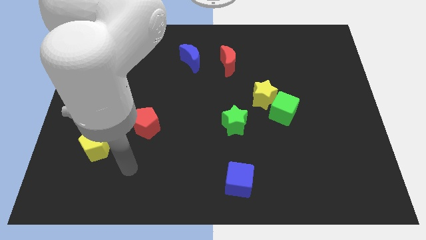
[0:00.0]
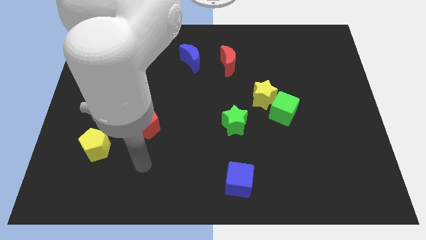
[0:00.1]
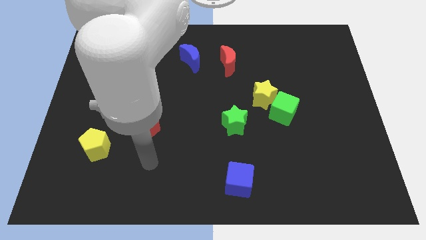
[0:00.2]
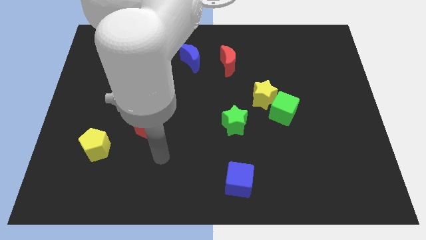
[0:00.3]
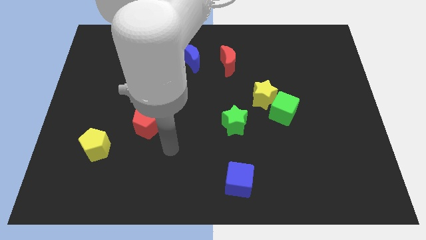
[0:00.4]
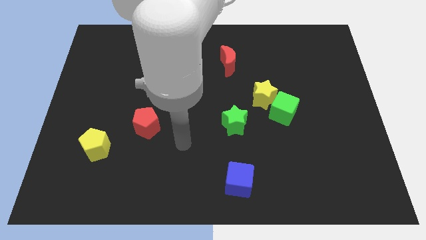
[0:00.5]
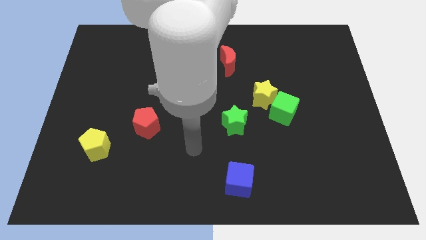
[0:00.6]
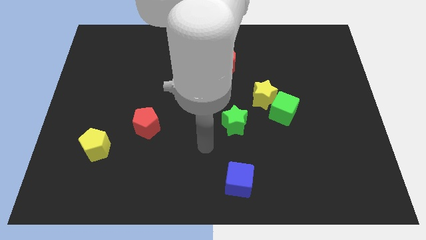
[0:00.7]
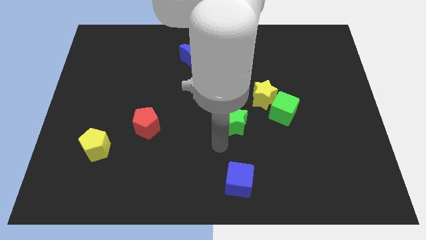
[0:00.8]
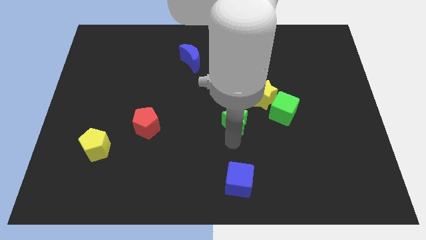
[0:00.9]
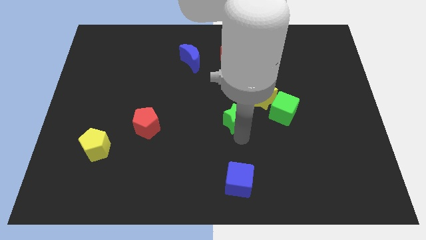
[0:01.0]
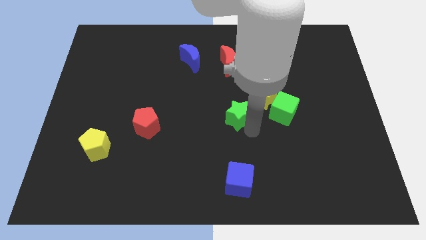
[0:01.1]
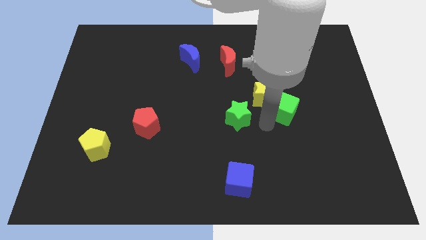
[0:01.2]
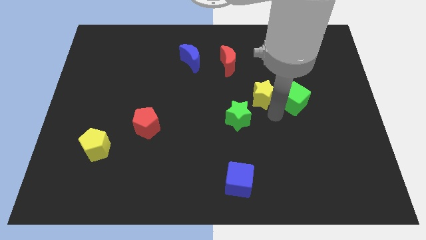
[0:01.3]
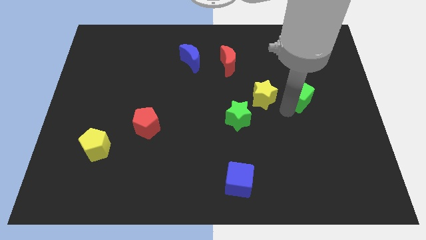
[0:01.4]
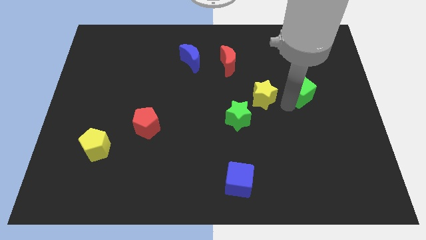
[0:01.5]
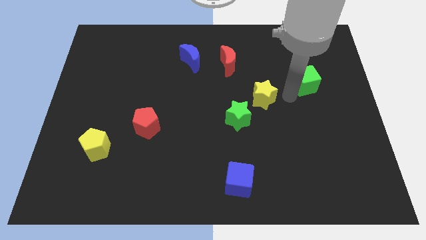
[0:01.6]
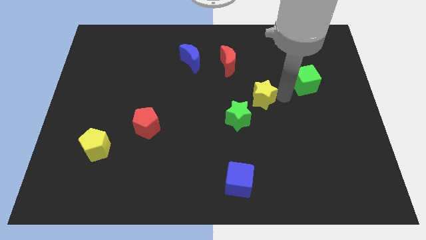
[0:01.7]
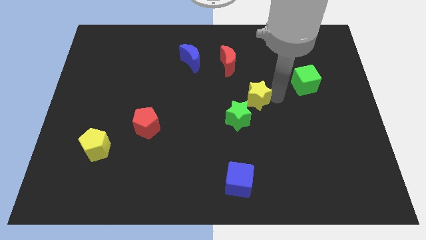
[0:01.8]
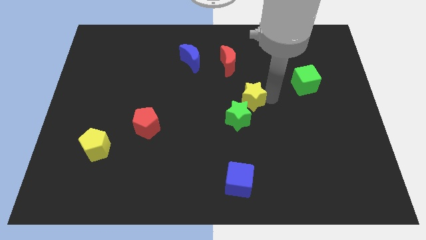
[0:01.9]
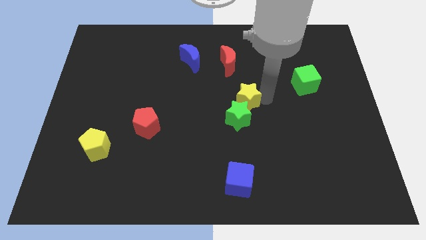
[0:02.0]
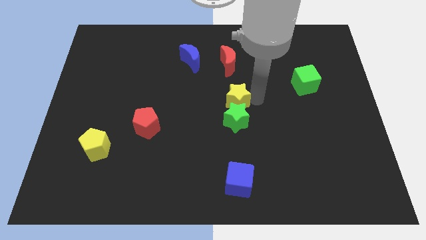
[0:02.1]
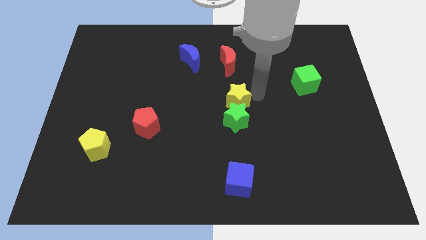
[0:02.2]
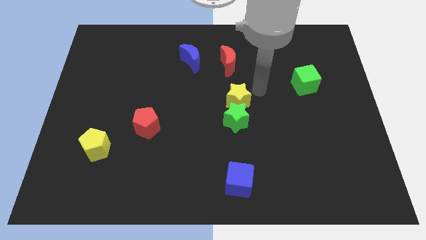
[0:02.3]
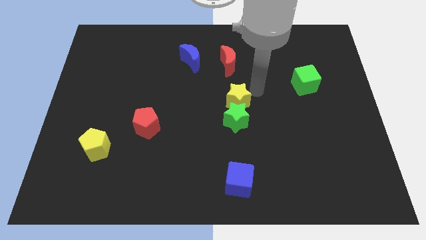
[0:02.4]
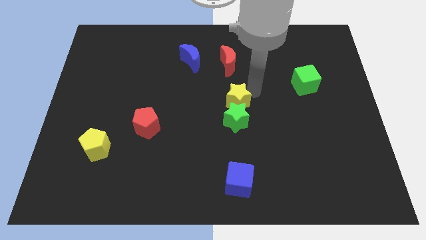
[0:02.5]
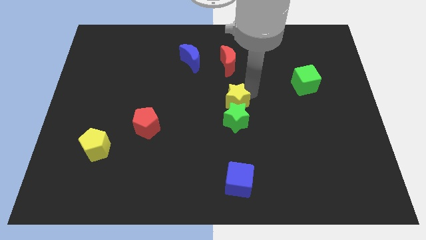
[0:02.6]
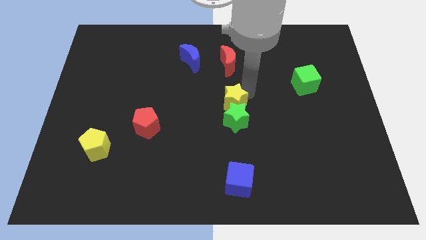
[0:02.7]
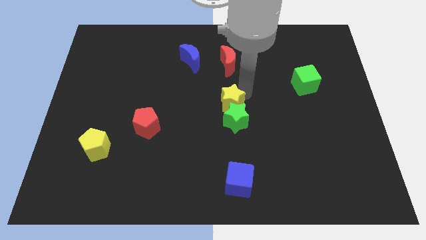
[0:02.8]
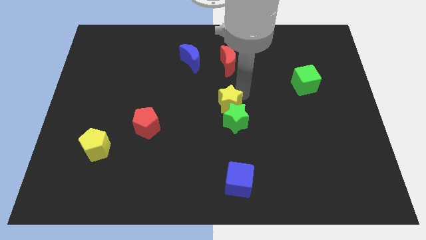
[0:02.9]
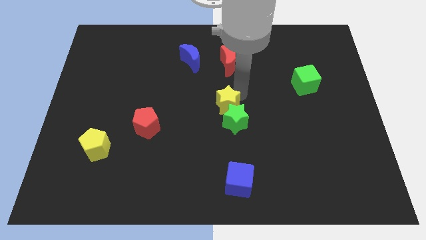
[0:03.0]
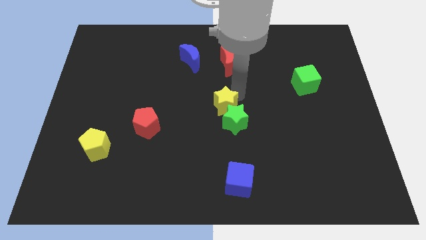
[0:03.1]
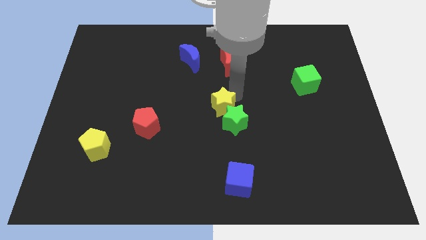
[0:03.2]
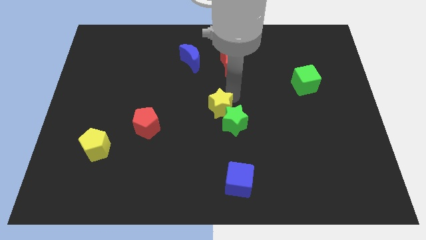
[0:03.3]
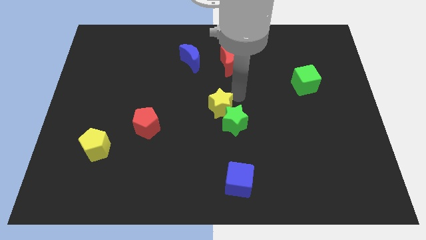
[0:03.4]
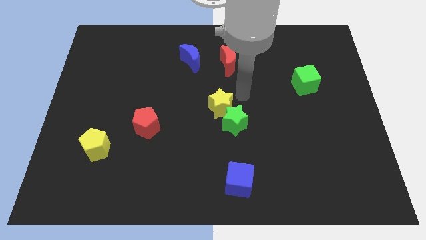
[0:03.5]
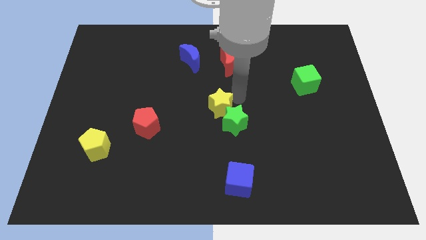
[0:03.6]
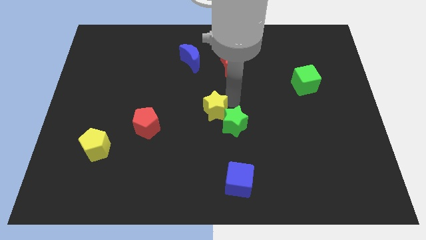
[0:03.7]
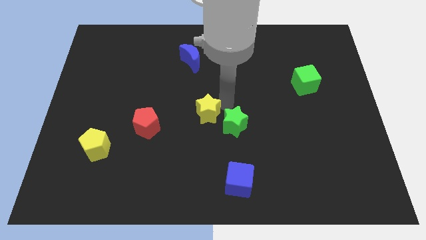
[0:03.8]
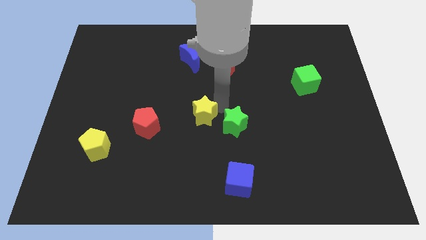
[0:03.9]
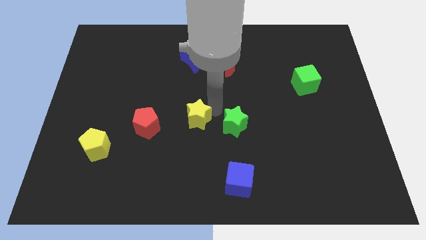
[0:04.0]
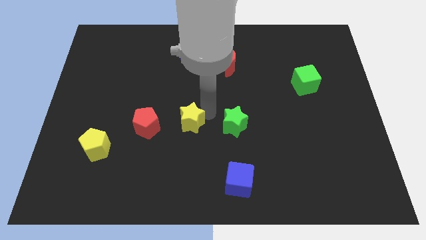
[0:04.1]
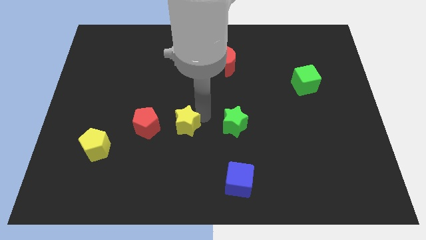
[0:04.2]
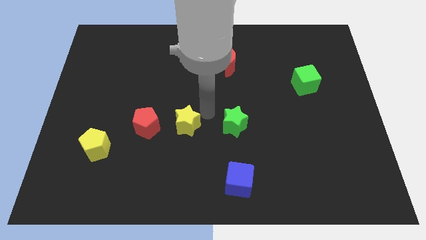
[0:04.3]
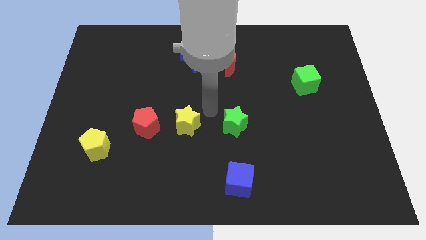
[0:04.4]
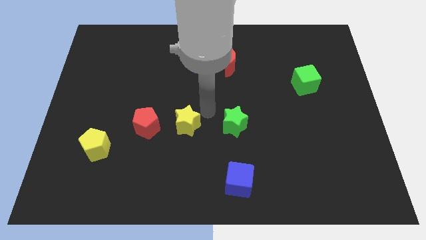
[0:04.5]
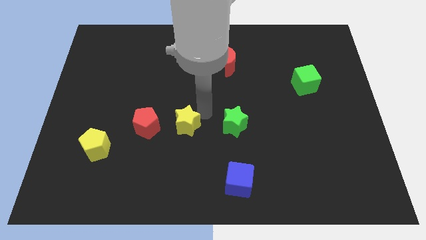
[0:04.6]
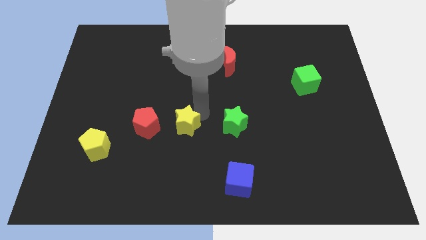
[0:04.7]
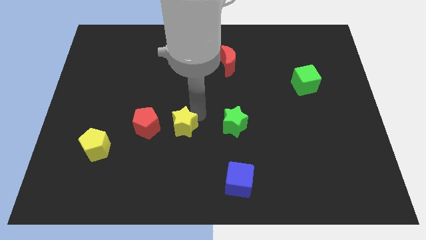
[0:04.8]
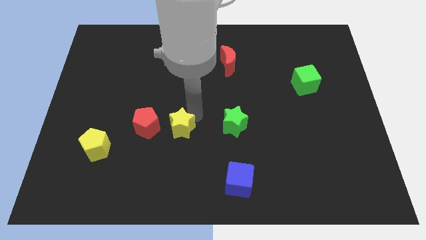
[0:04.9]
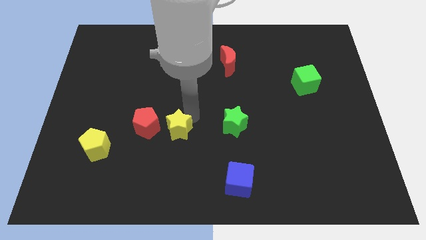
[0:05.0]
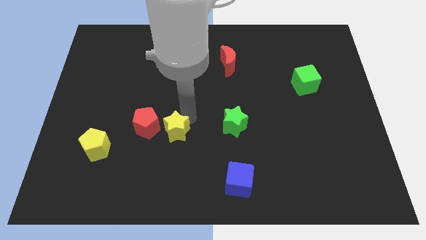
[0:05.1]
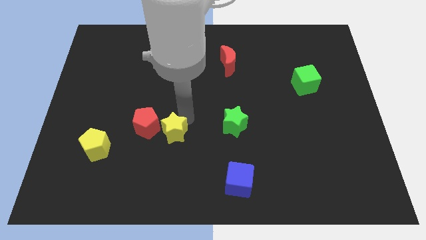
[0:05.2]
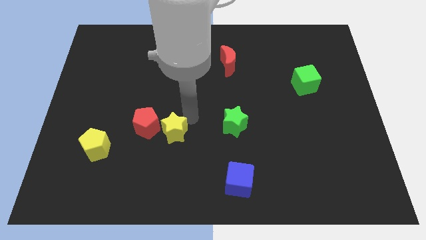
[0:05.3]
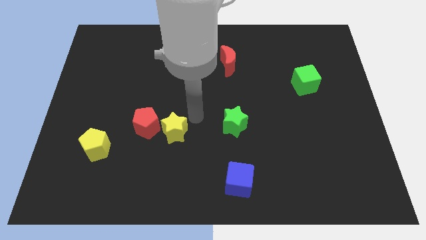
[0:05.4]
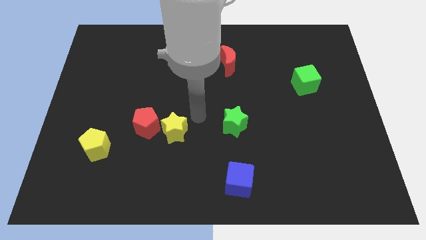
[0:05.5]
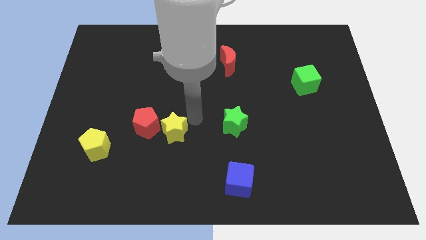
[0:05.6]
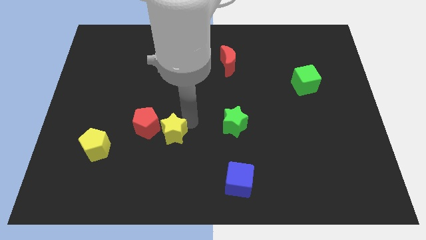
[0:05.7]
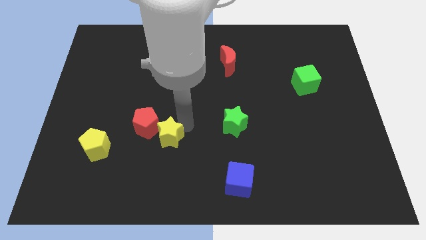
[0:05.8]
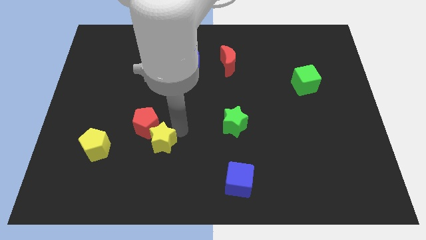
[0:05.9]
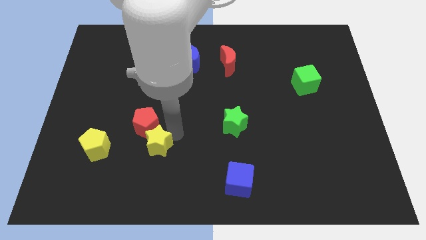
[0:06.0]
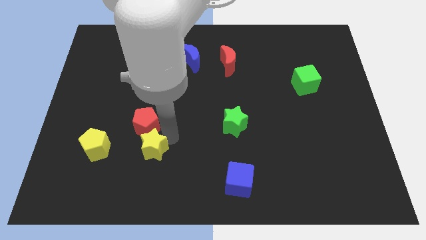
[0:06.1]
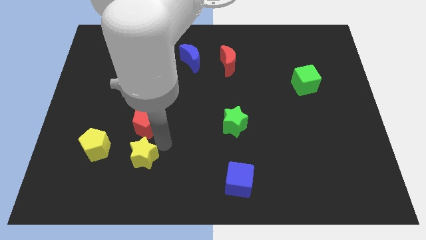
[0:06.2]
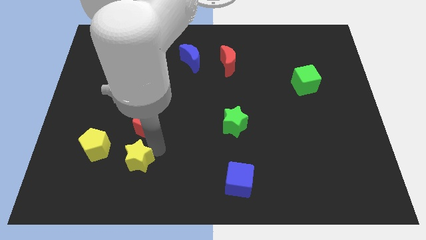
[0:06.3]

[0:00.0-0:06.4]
slide the yellow star diagonally down and to the right of the yellow pentagon
